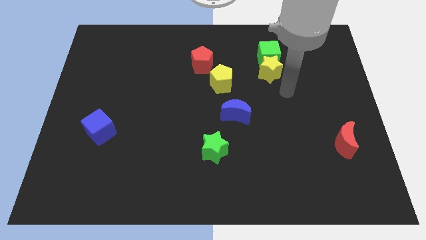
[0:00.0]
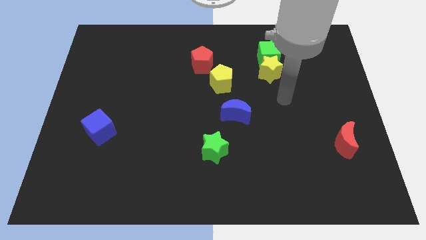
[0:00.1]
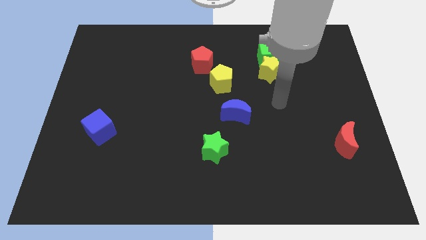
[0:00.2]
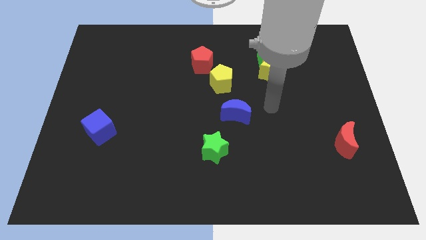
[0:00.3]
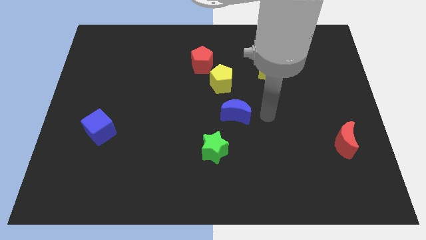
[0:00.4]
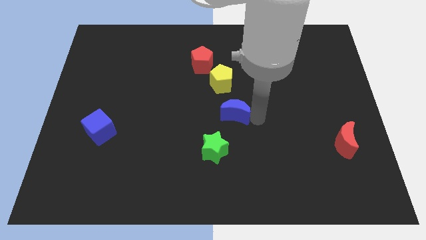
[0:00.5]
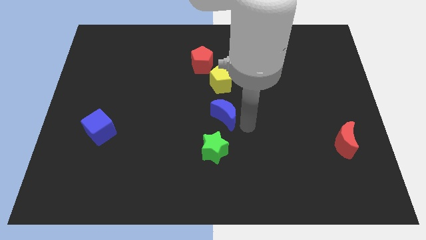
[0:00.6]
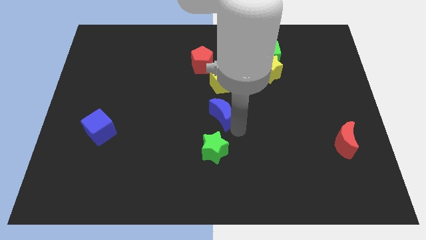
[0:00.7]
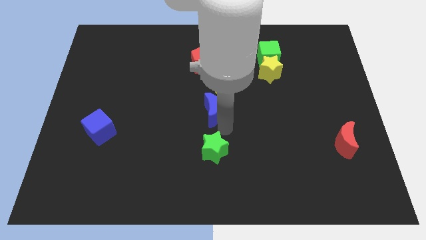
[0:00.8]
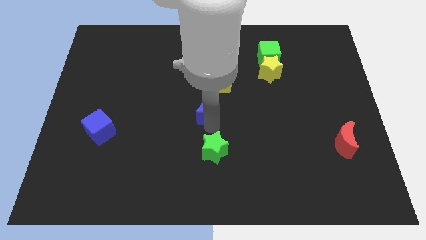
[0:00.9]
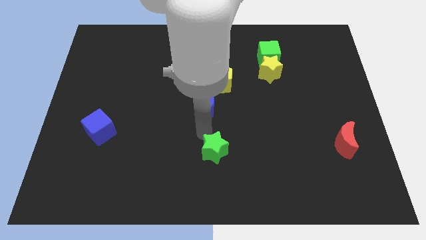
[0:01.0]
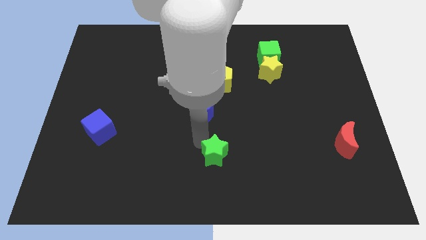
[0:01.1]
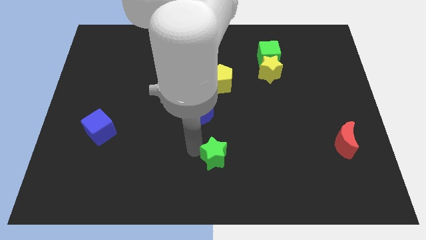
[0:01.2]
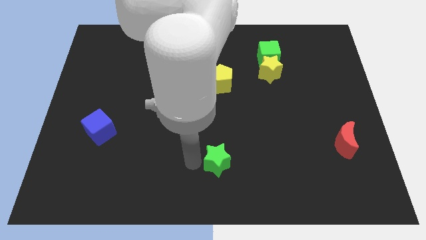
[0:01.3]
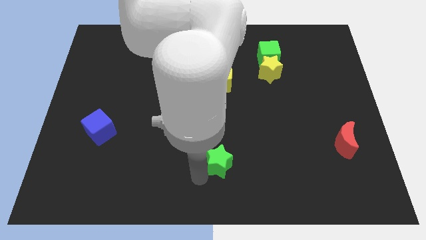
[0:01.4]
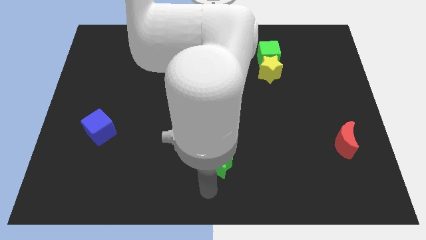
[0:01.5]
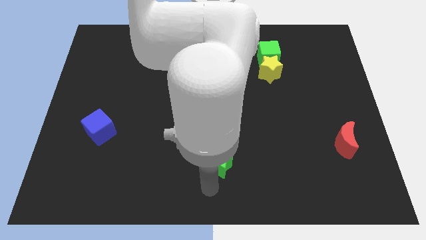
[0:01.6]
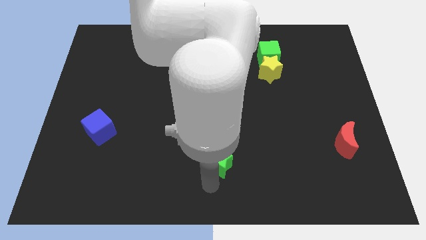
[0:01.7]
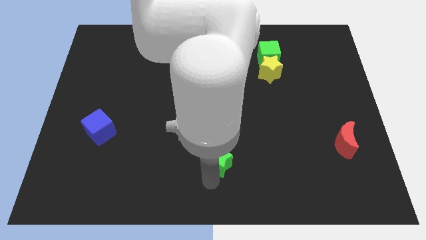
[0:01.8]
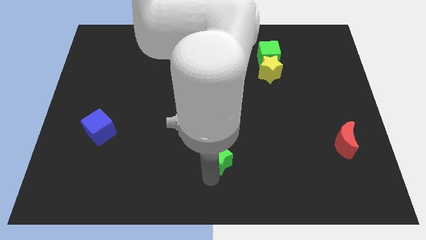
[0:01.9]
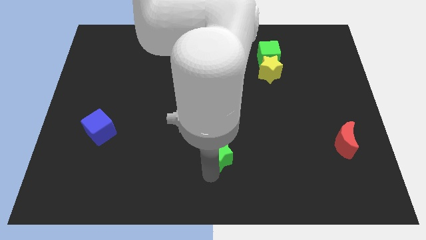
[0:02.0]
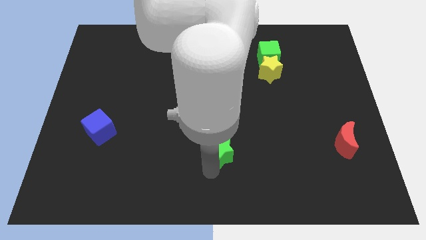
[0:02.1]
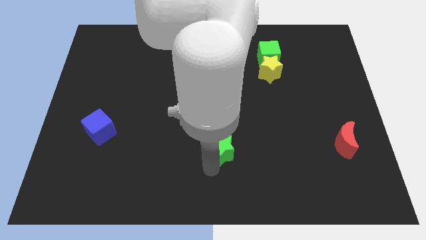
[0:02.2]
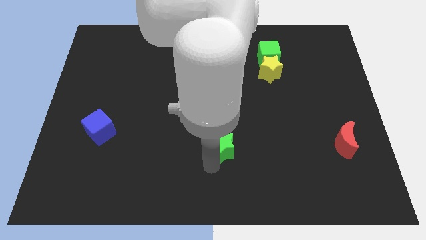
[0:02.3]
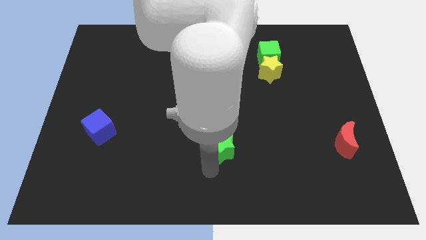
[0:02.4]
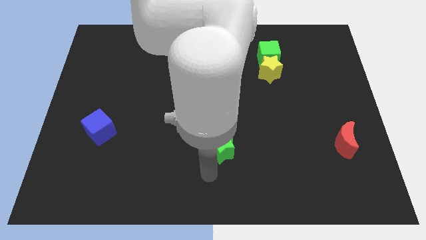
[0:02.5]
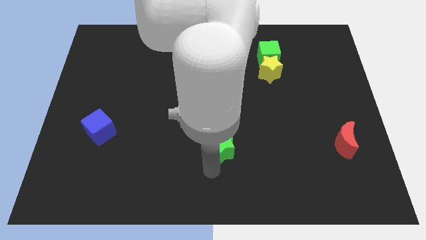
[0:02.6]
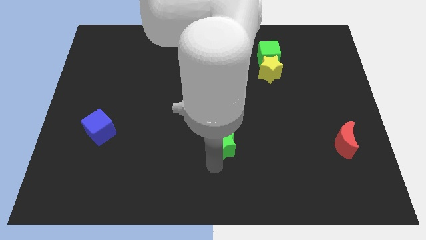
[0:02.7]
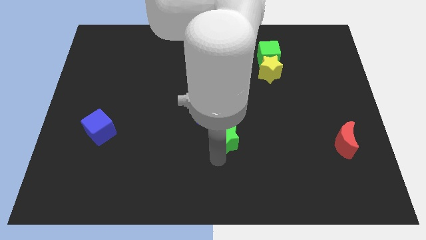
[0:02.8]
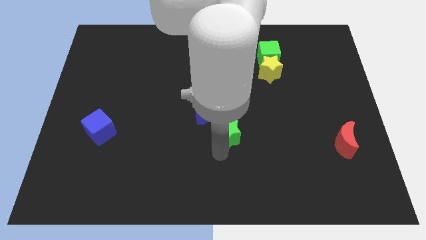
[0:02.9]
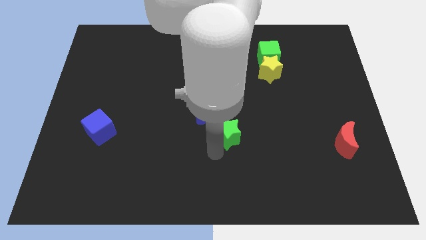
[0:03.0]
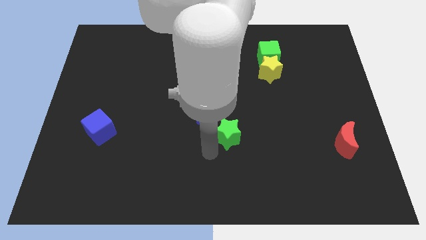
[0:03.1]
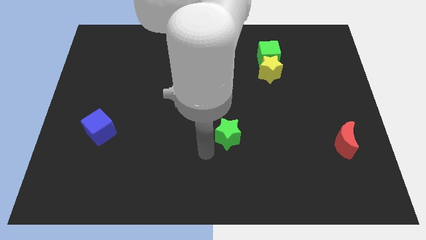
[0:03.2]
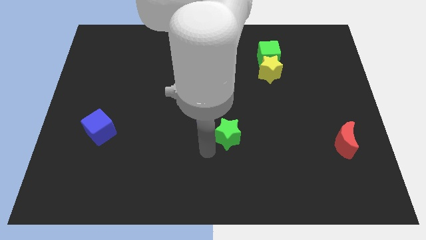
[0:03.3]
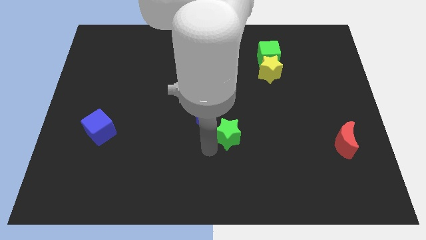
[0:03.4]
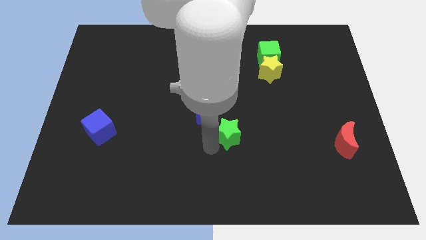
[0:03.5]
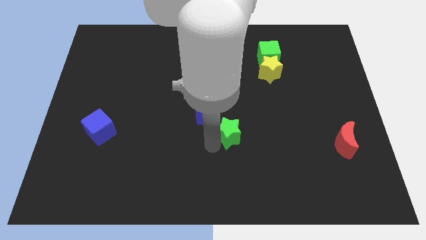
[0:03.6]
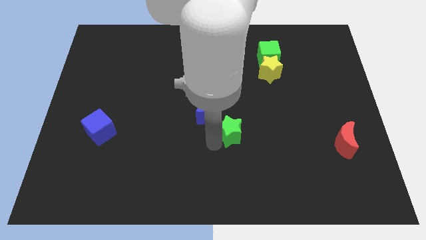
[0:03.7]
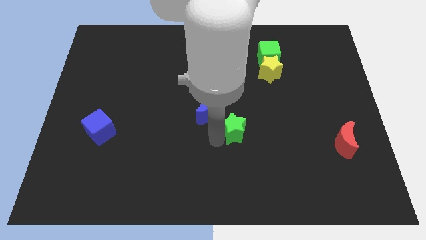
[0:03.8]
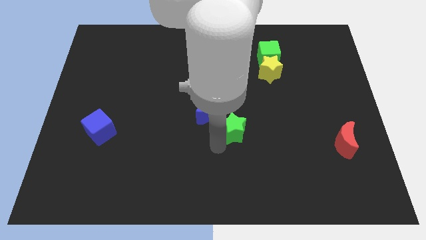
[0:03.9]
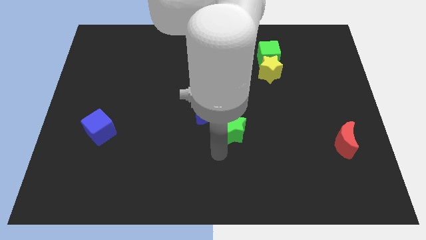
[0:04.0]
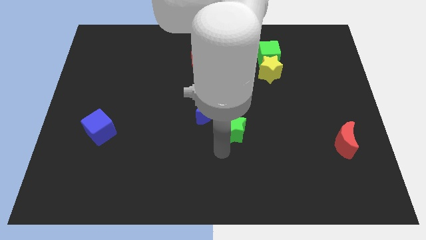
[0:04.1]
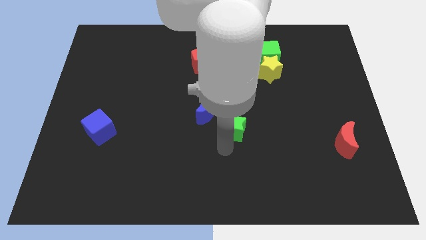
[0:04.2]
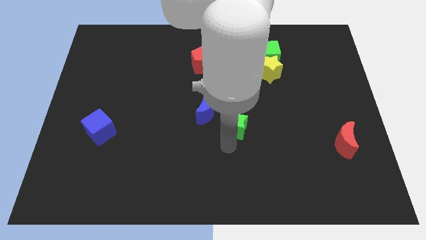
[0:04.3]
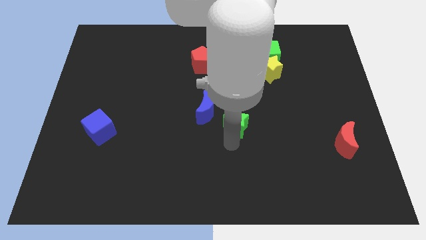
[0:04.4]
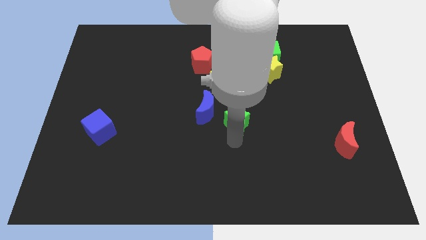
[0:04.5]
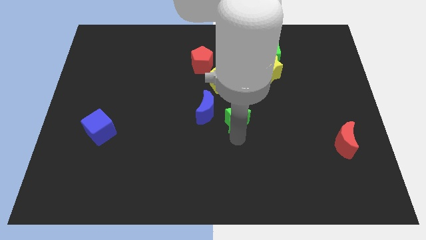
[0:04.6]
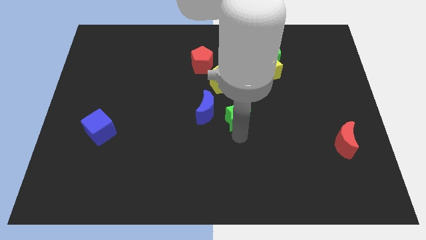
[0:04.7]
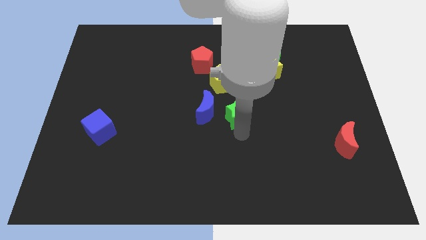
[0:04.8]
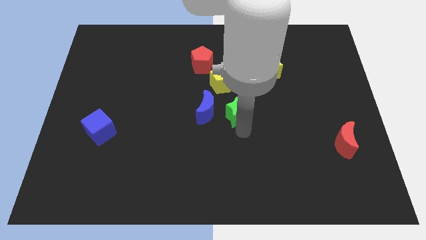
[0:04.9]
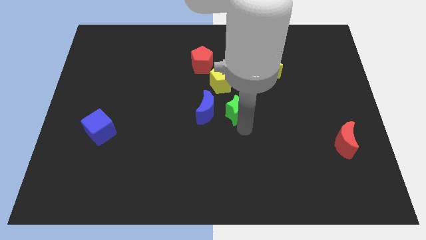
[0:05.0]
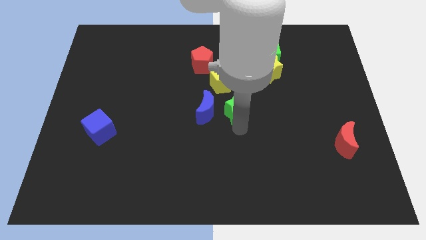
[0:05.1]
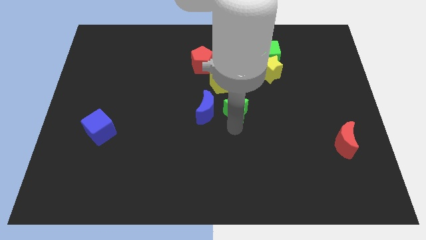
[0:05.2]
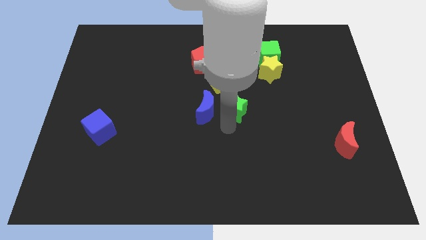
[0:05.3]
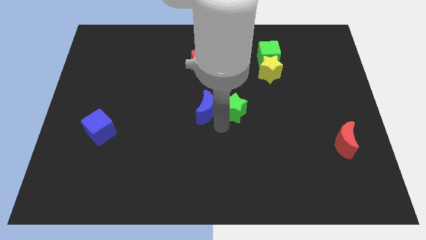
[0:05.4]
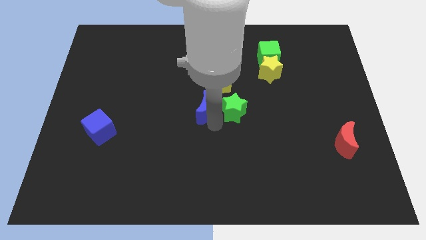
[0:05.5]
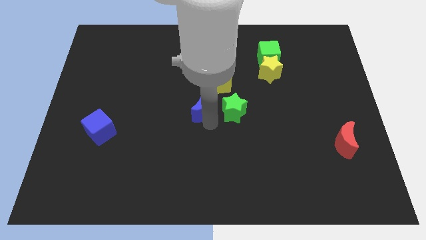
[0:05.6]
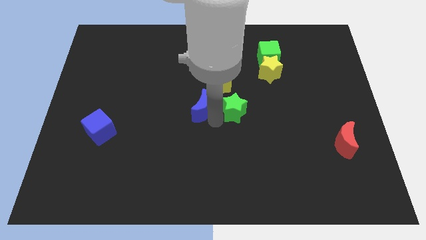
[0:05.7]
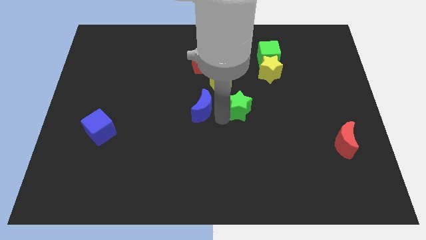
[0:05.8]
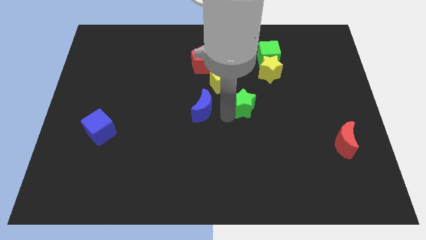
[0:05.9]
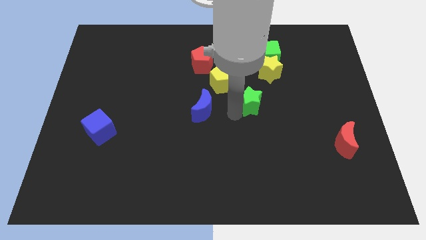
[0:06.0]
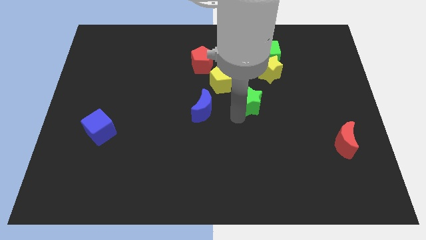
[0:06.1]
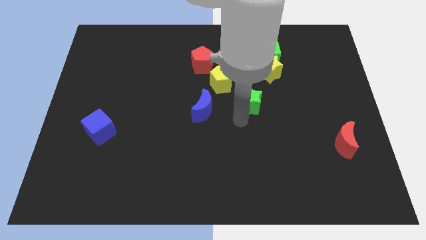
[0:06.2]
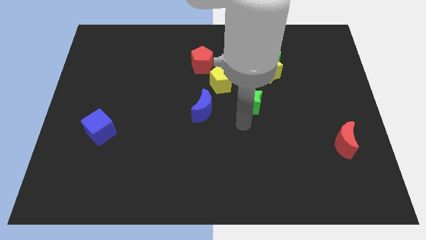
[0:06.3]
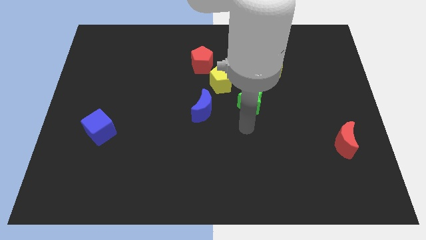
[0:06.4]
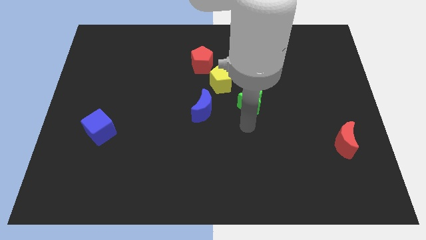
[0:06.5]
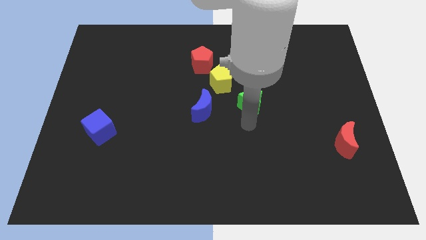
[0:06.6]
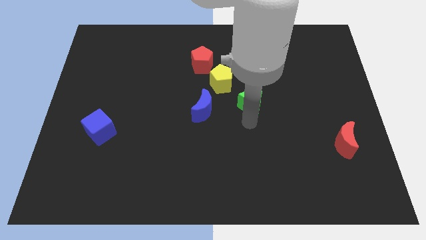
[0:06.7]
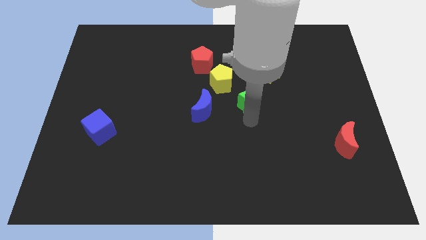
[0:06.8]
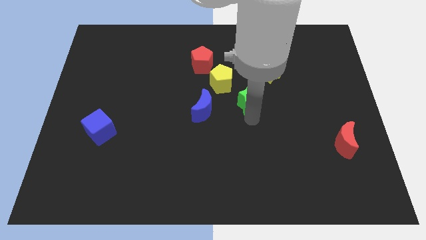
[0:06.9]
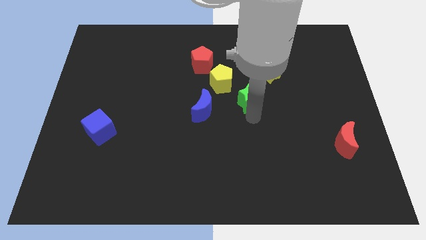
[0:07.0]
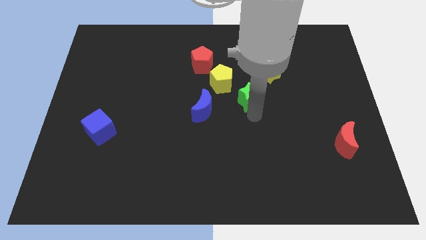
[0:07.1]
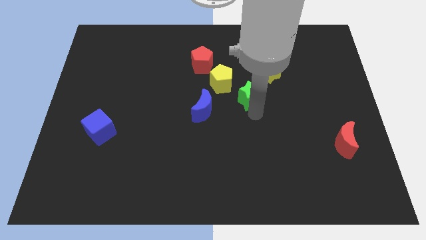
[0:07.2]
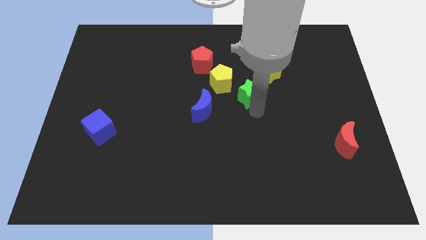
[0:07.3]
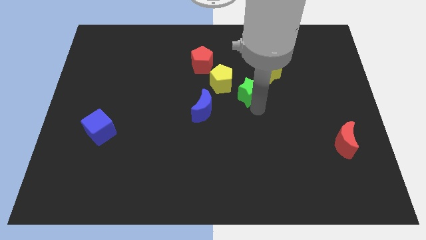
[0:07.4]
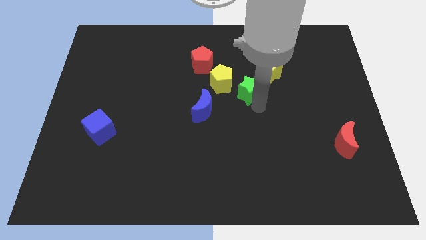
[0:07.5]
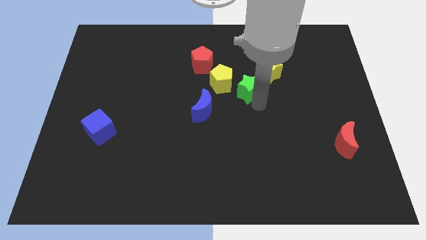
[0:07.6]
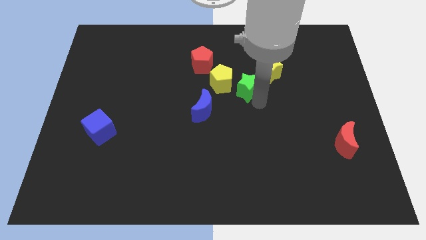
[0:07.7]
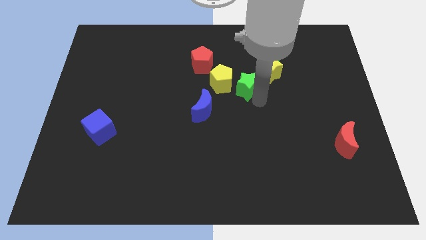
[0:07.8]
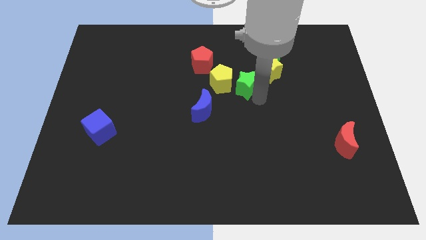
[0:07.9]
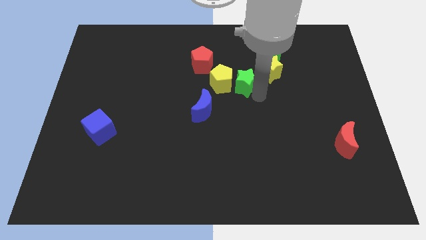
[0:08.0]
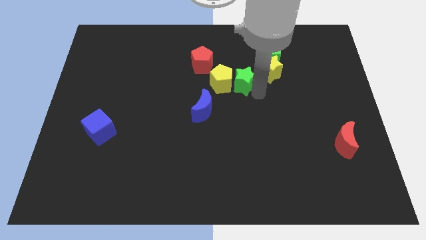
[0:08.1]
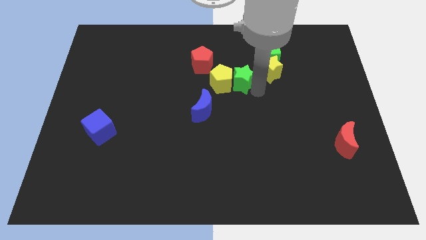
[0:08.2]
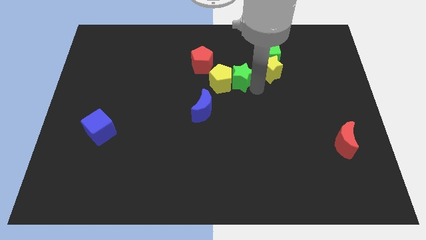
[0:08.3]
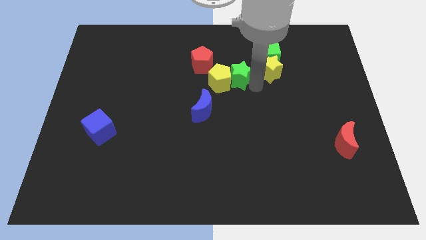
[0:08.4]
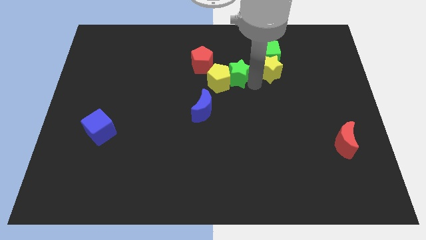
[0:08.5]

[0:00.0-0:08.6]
push the green star just right of the red pentagon
